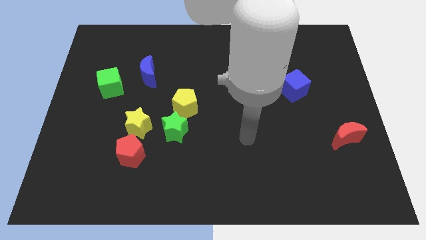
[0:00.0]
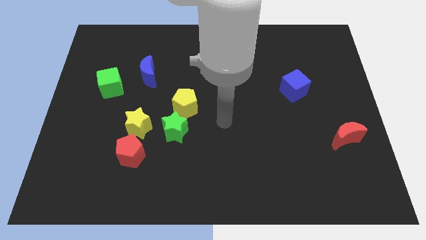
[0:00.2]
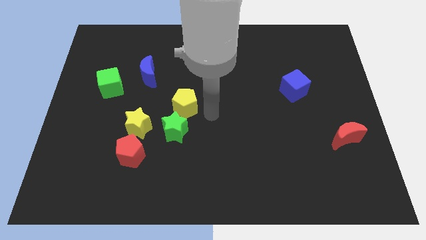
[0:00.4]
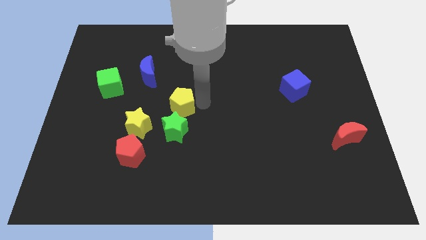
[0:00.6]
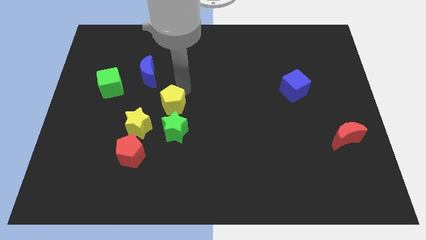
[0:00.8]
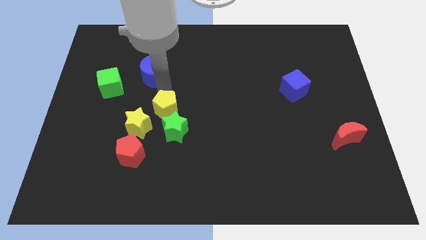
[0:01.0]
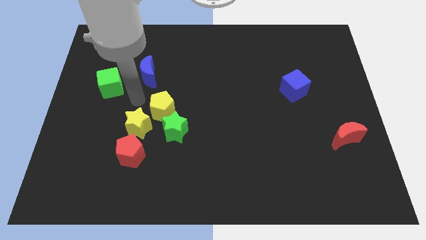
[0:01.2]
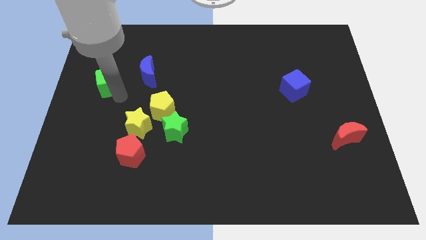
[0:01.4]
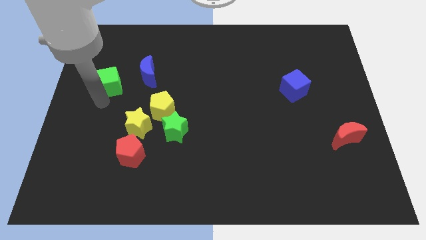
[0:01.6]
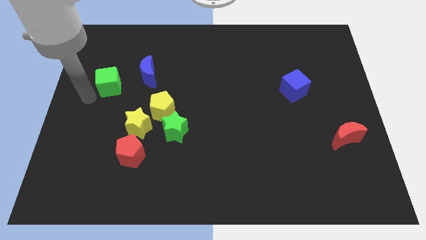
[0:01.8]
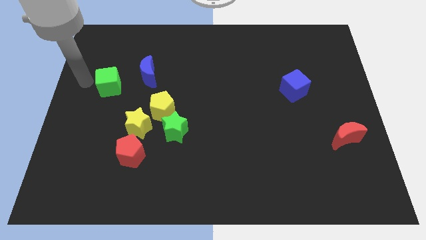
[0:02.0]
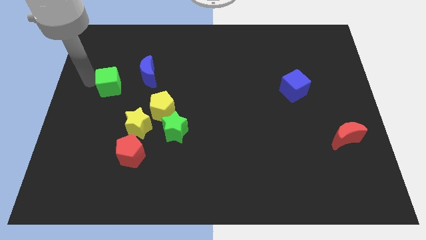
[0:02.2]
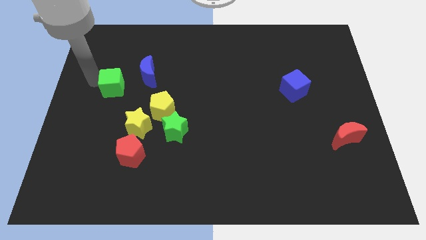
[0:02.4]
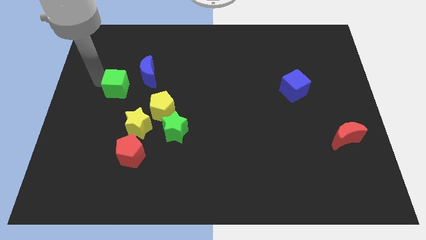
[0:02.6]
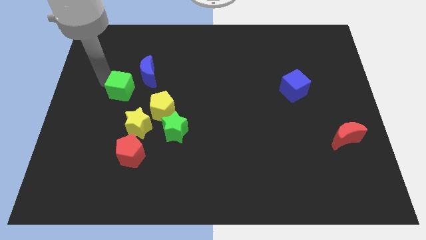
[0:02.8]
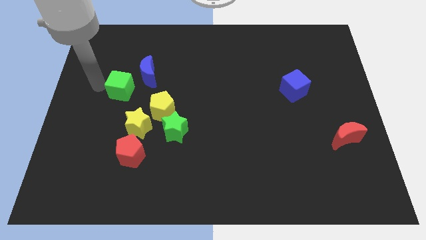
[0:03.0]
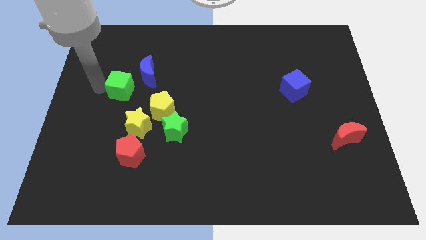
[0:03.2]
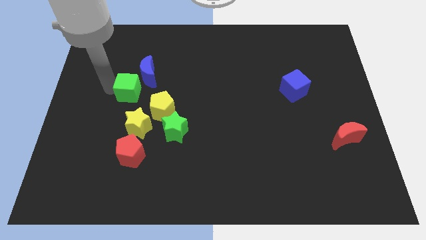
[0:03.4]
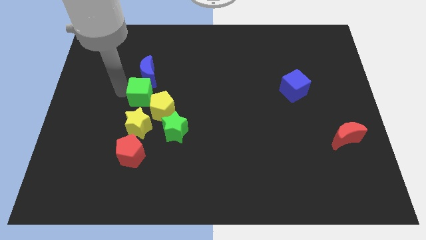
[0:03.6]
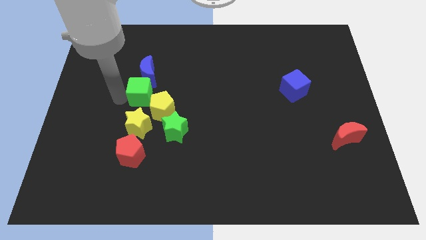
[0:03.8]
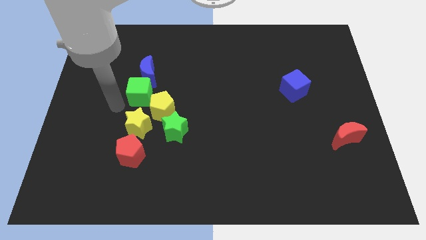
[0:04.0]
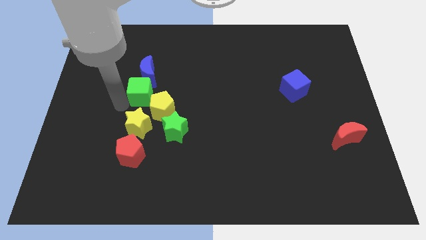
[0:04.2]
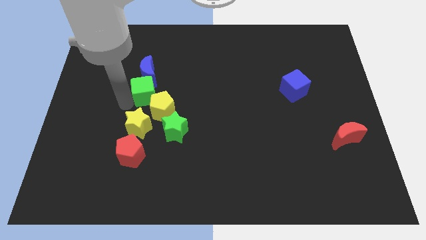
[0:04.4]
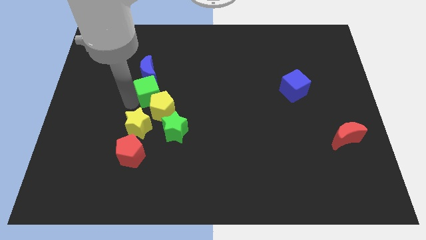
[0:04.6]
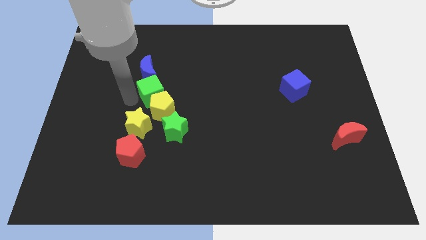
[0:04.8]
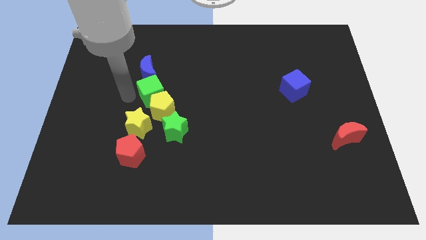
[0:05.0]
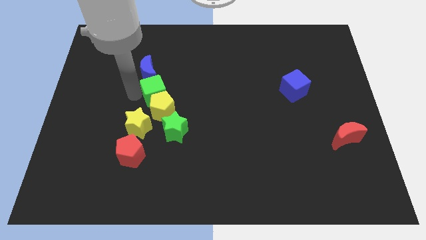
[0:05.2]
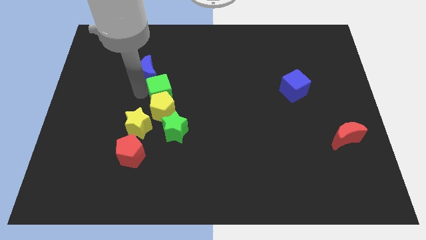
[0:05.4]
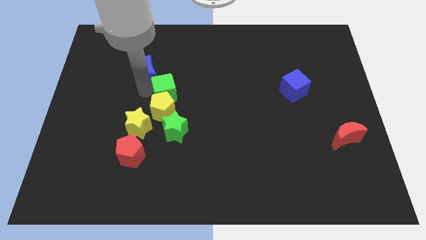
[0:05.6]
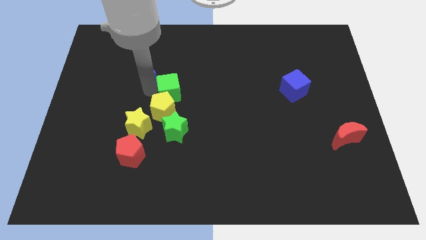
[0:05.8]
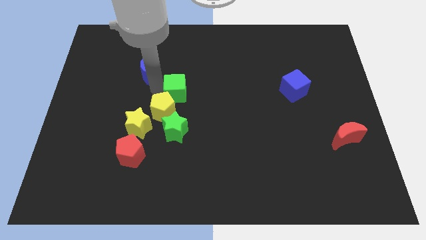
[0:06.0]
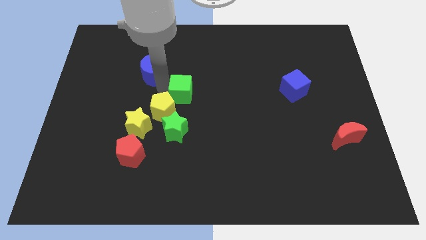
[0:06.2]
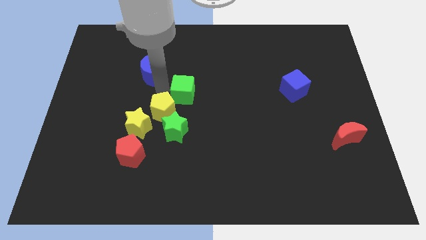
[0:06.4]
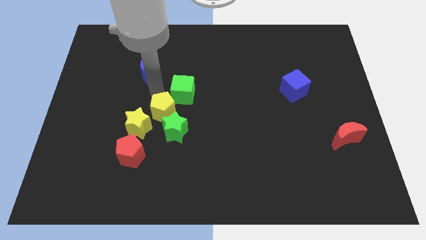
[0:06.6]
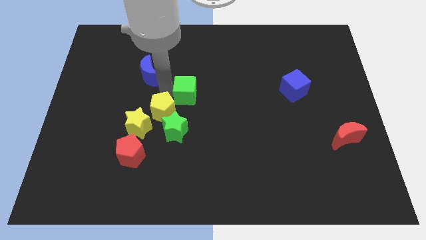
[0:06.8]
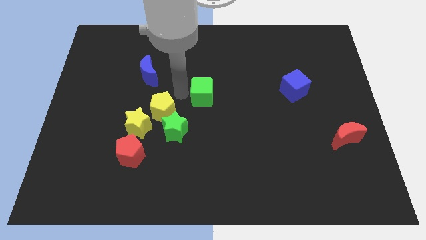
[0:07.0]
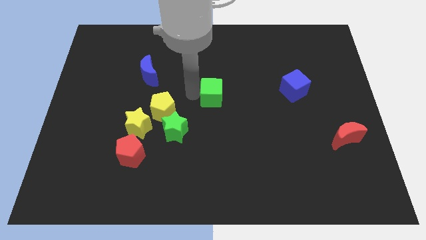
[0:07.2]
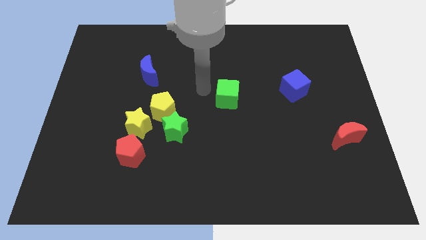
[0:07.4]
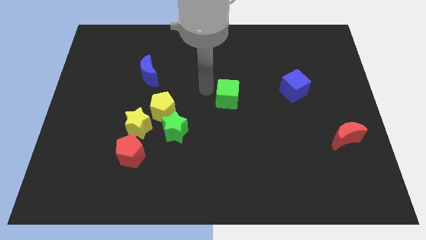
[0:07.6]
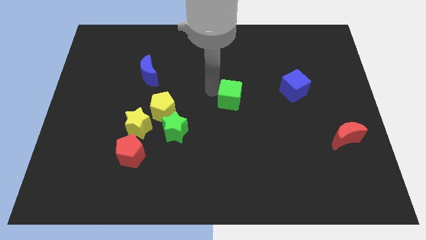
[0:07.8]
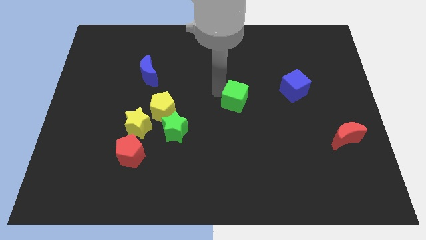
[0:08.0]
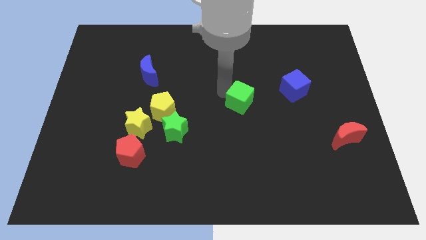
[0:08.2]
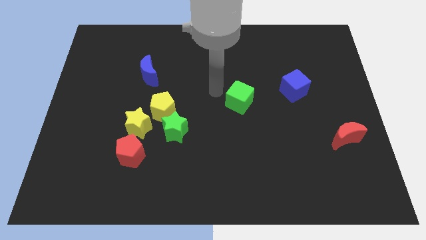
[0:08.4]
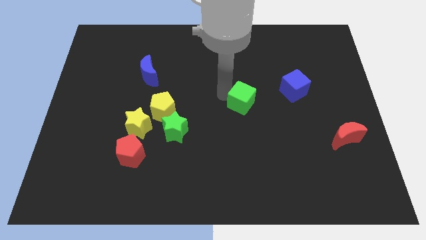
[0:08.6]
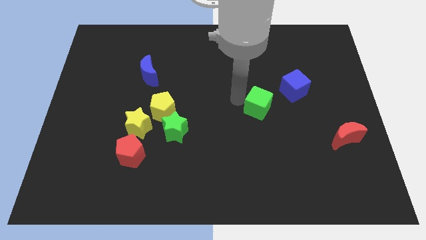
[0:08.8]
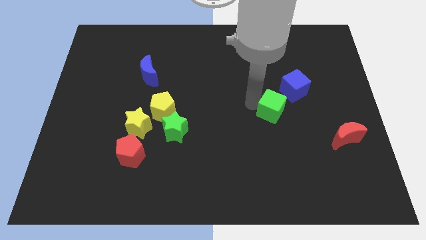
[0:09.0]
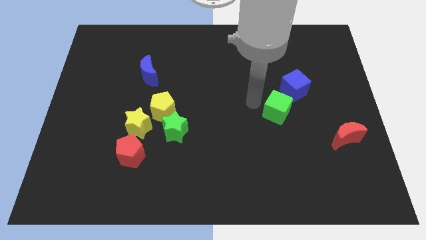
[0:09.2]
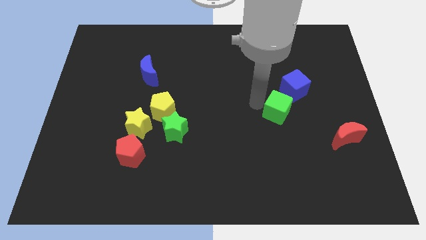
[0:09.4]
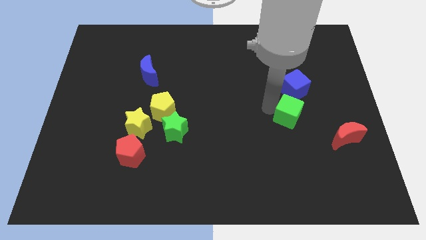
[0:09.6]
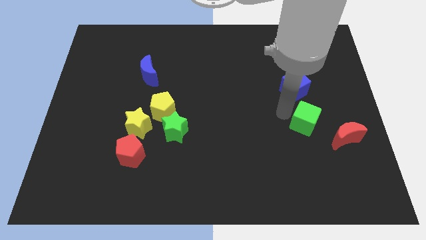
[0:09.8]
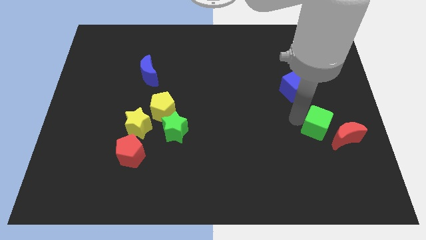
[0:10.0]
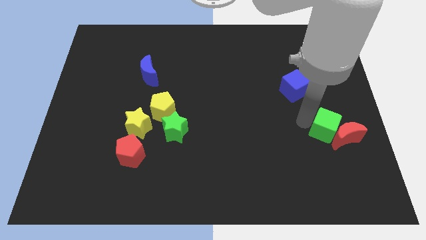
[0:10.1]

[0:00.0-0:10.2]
slide the green cube towards the red moon

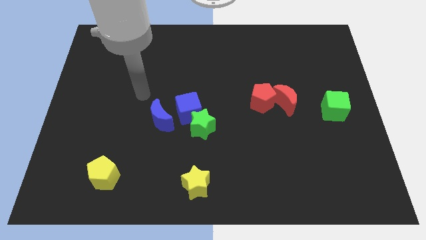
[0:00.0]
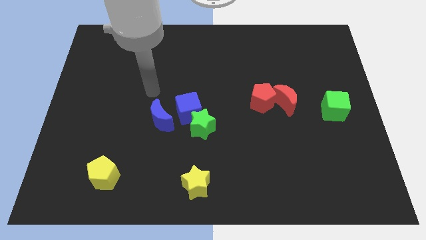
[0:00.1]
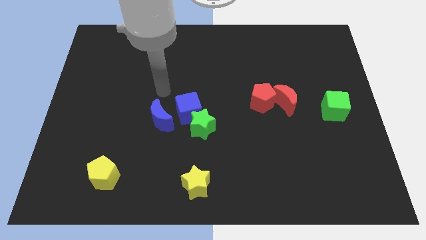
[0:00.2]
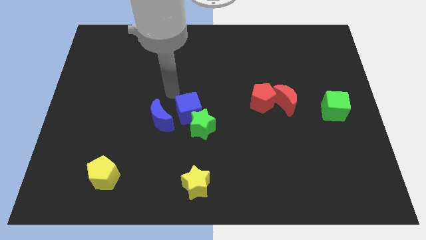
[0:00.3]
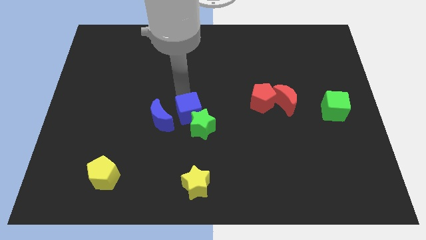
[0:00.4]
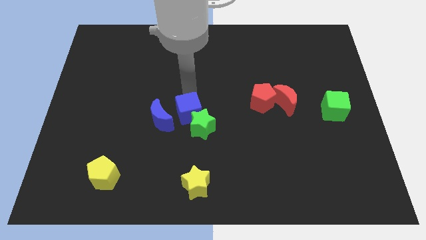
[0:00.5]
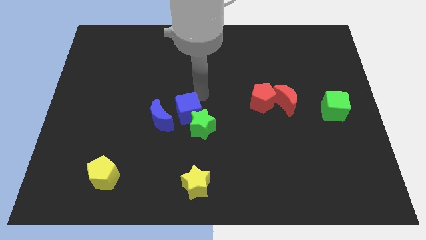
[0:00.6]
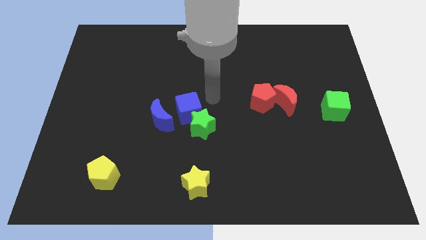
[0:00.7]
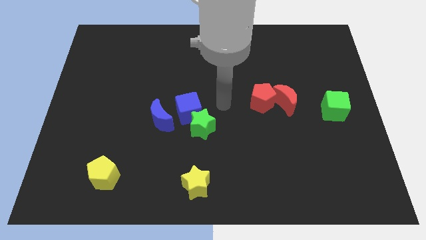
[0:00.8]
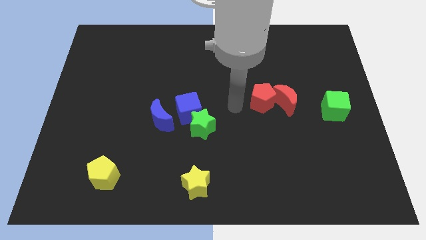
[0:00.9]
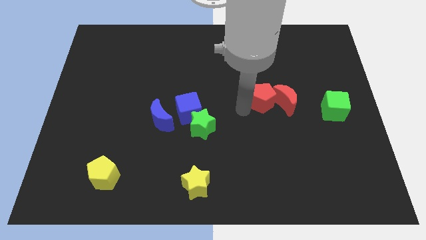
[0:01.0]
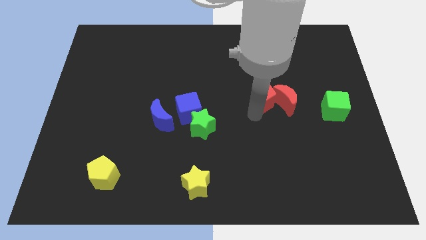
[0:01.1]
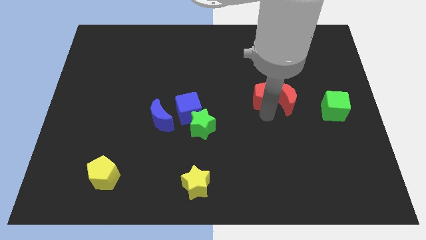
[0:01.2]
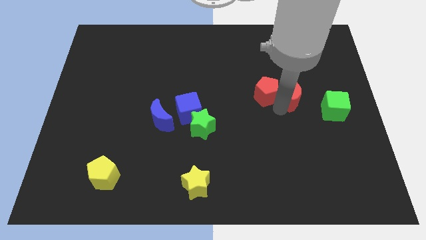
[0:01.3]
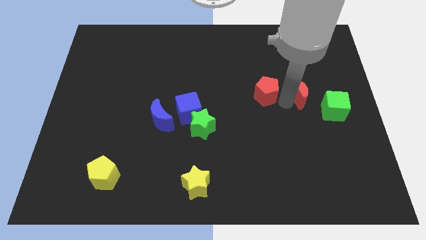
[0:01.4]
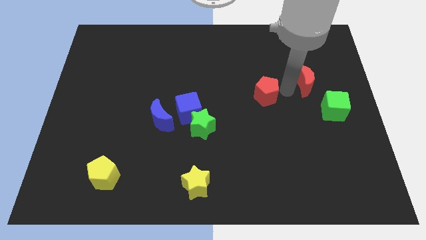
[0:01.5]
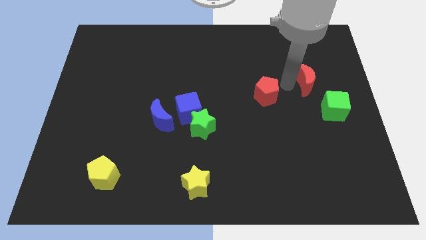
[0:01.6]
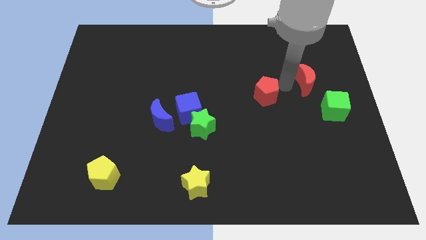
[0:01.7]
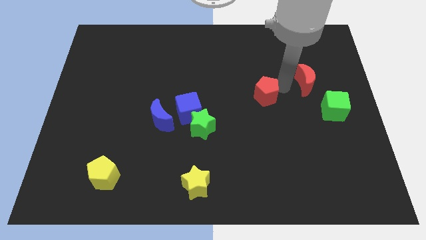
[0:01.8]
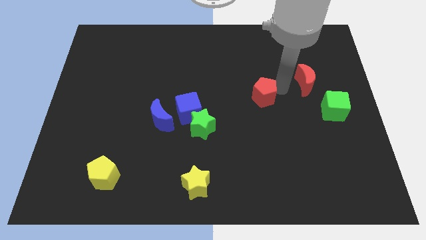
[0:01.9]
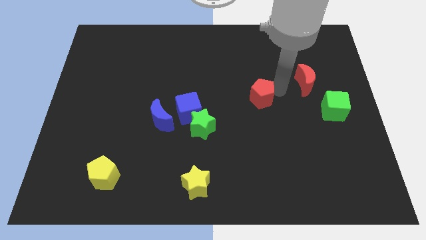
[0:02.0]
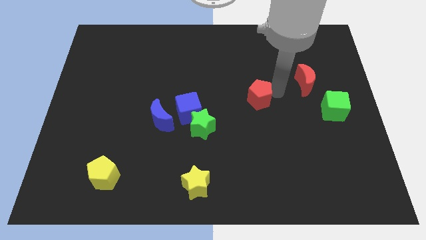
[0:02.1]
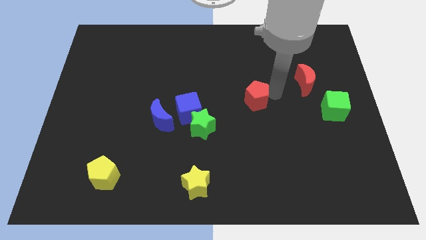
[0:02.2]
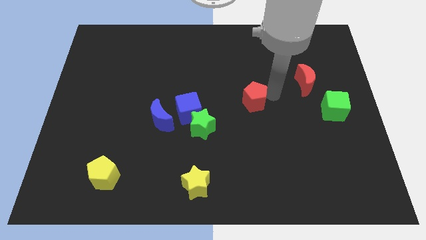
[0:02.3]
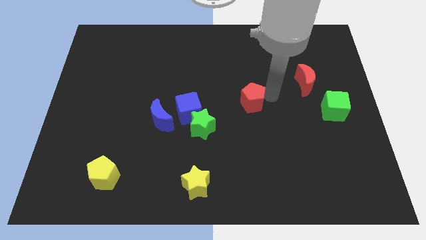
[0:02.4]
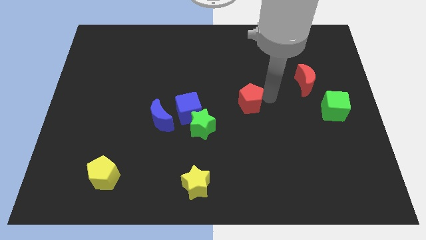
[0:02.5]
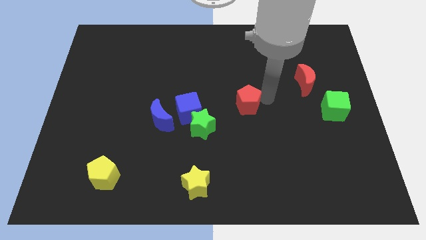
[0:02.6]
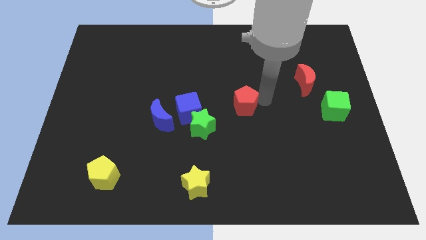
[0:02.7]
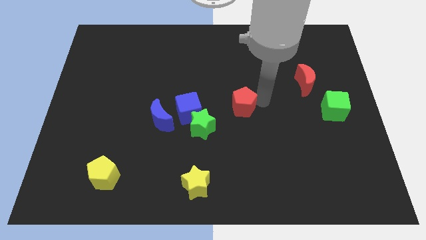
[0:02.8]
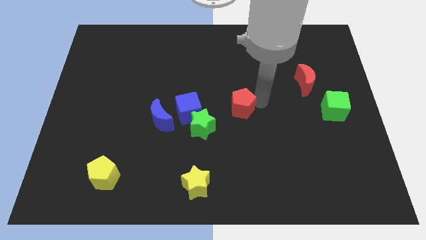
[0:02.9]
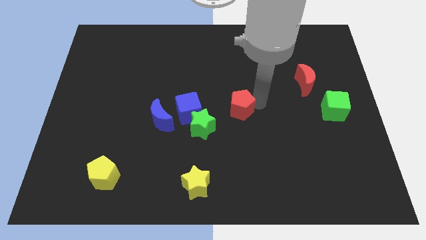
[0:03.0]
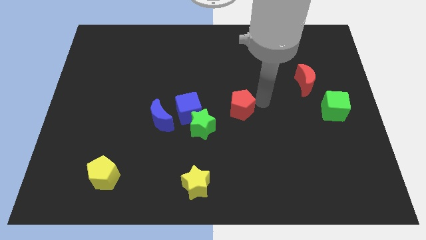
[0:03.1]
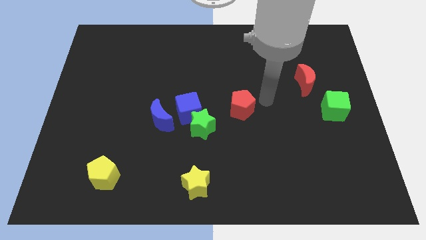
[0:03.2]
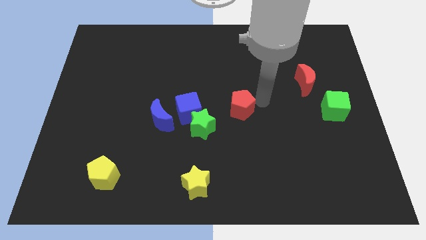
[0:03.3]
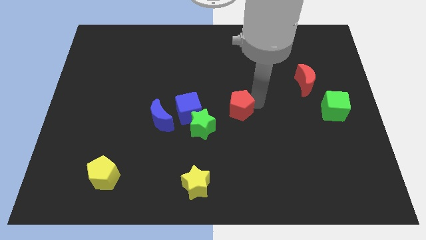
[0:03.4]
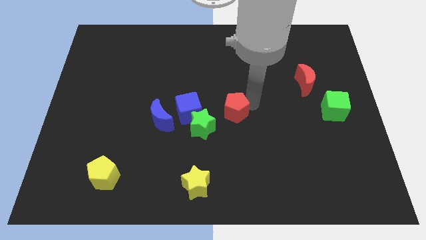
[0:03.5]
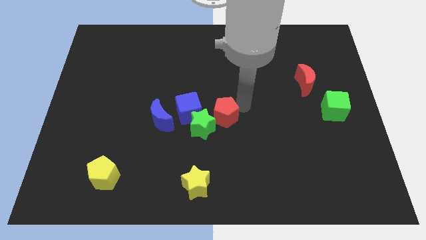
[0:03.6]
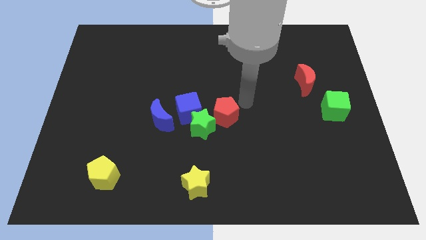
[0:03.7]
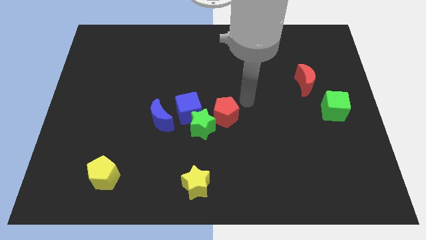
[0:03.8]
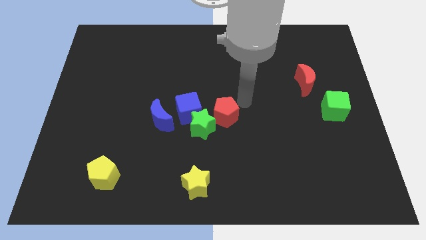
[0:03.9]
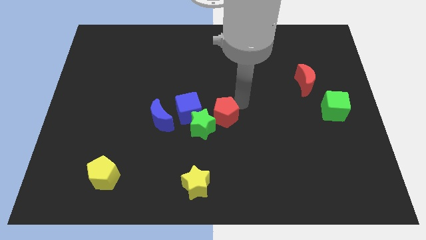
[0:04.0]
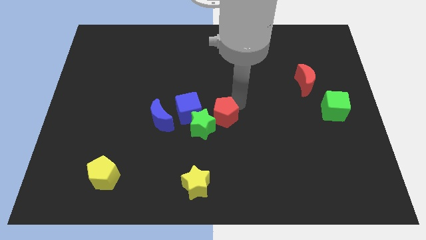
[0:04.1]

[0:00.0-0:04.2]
slide the red pentagon close to the green star
